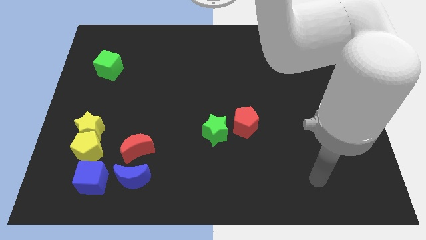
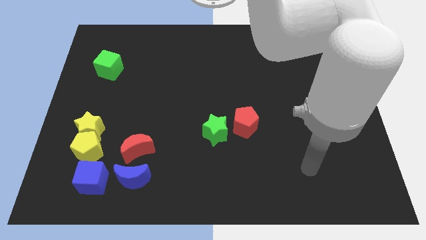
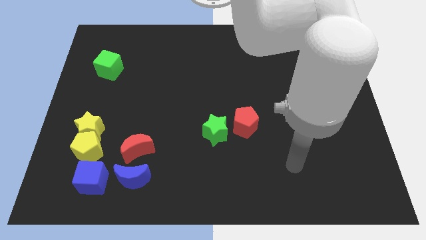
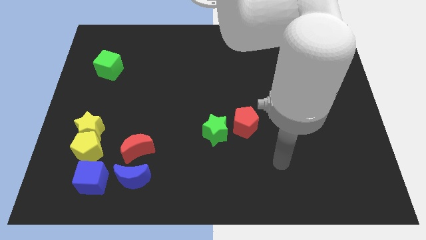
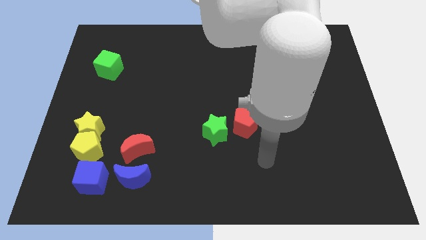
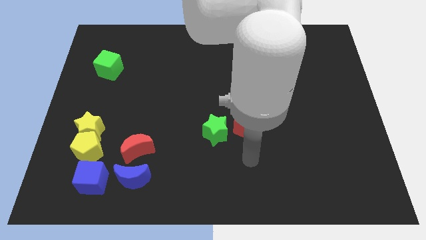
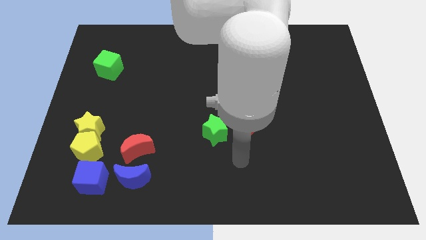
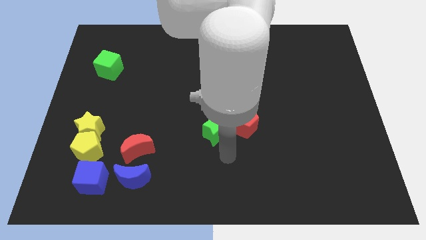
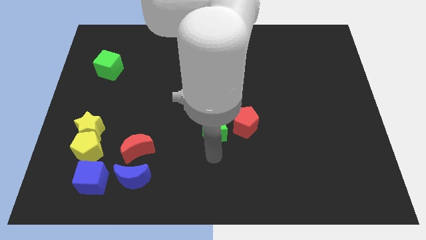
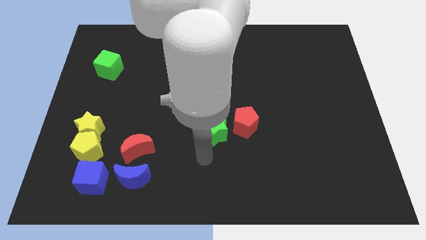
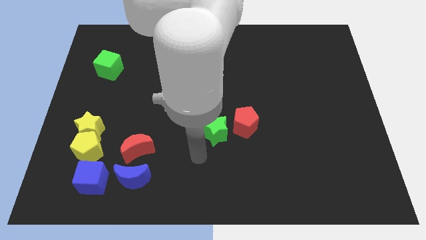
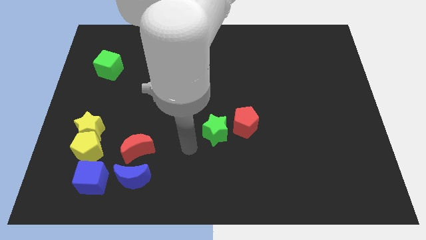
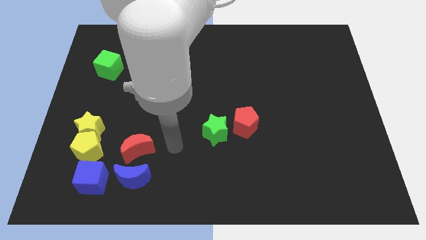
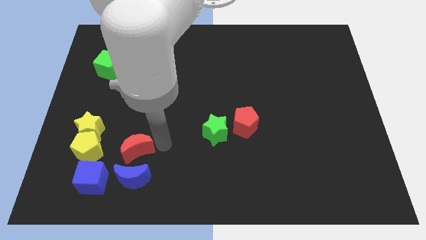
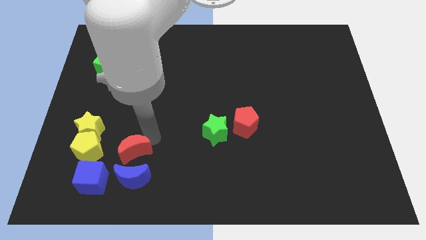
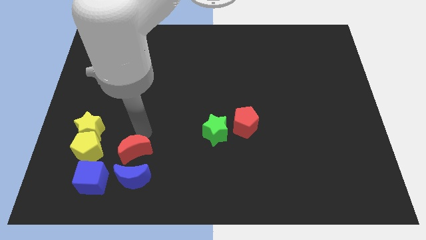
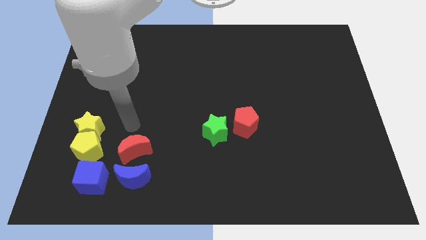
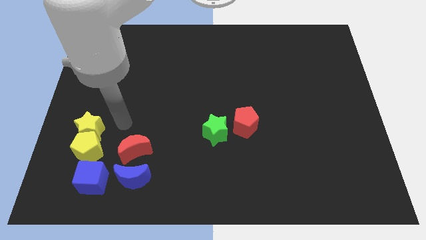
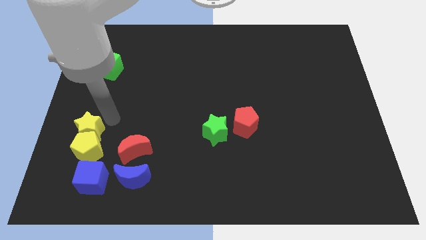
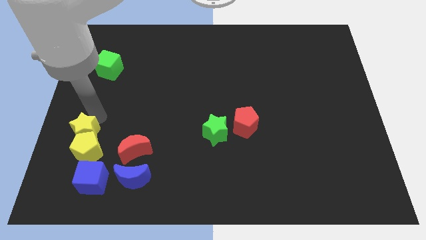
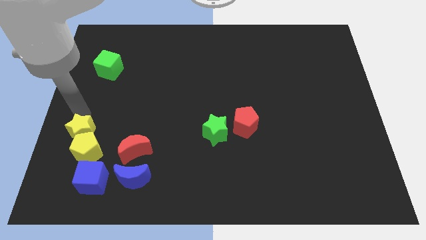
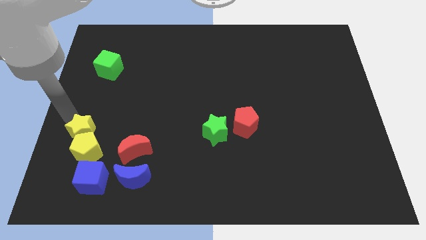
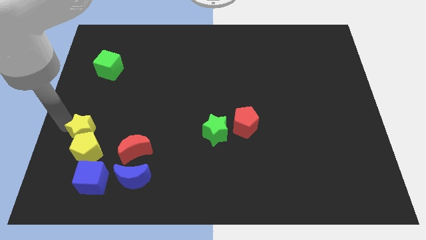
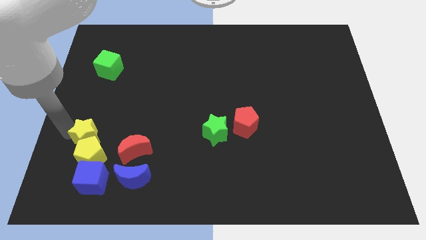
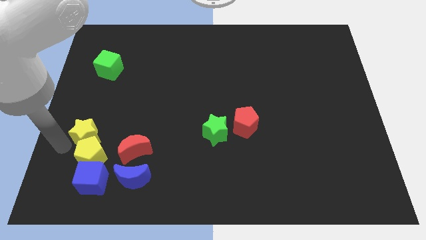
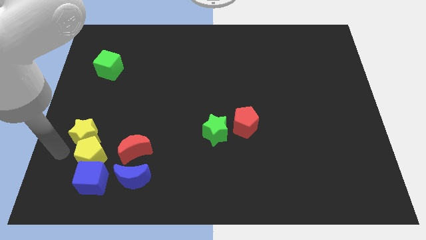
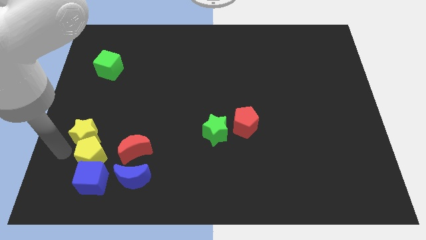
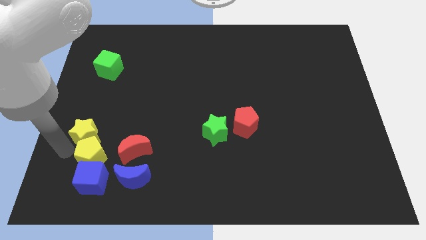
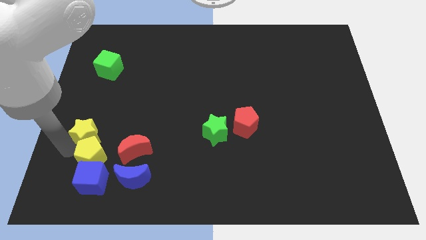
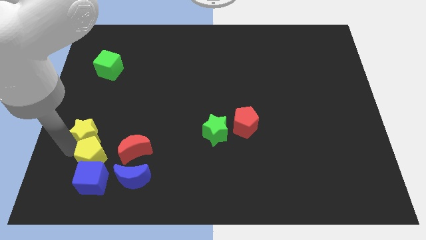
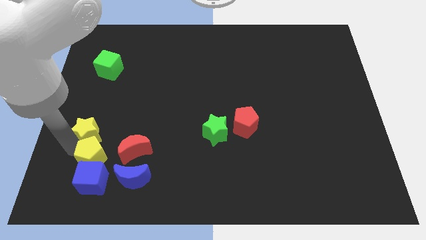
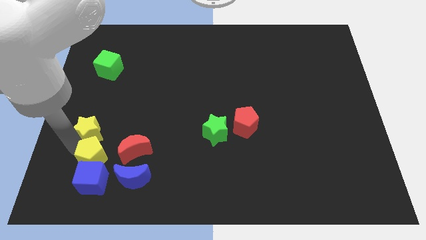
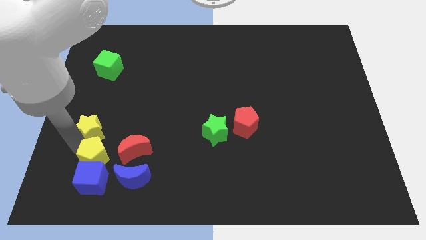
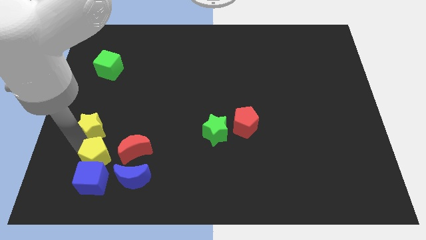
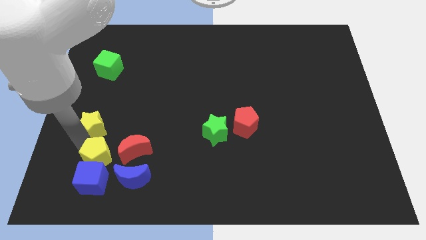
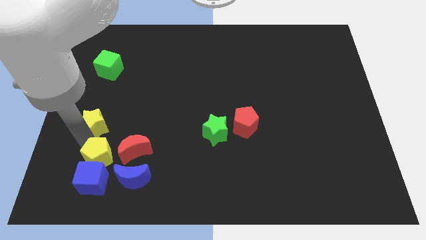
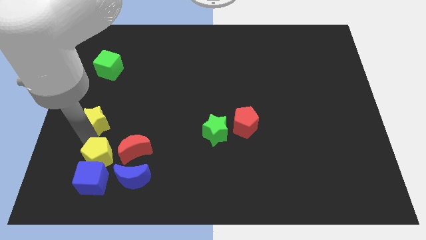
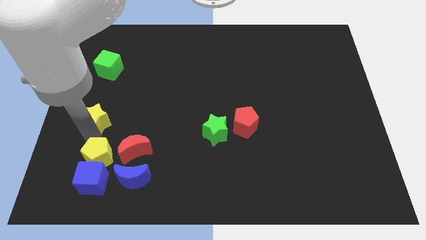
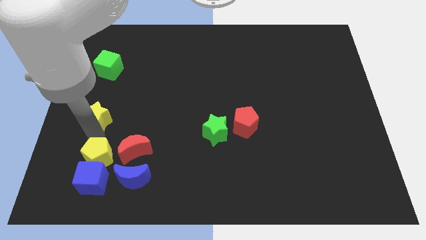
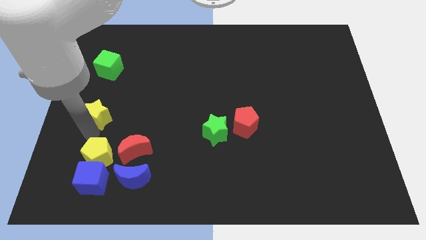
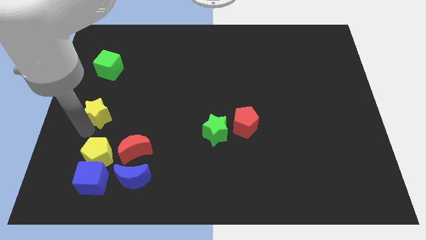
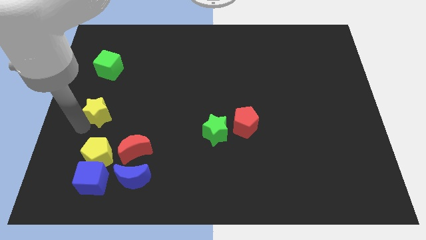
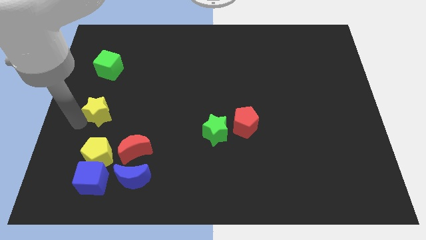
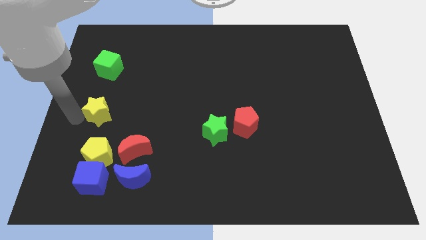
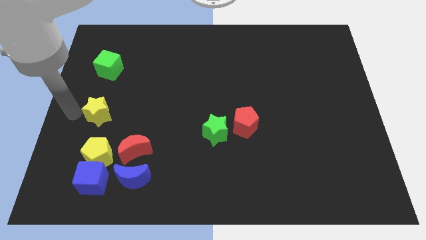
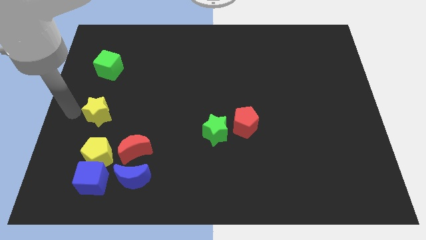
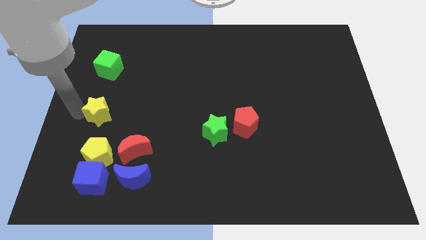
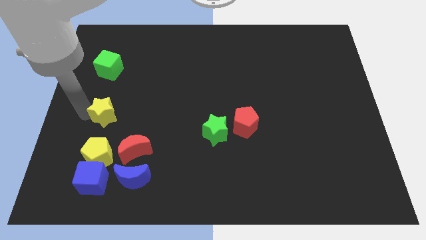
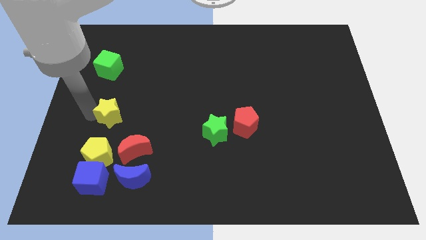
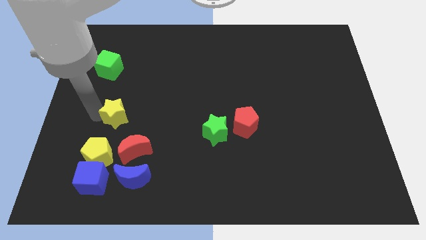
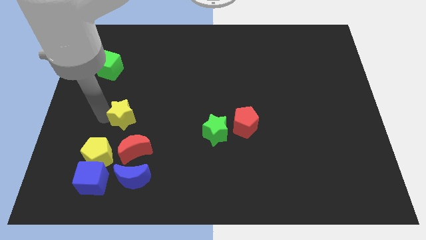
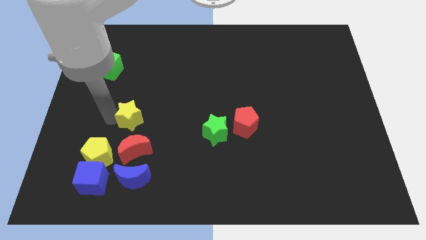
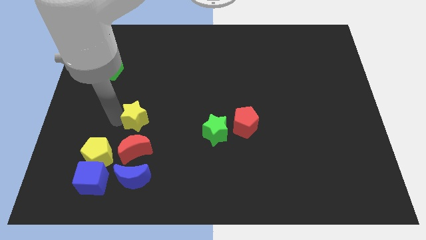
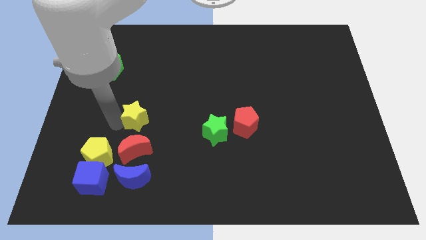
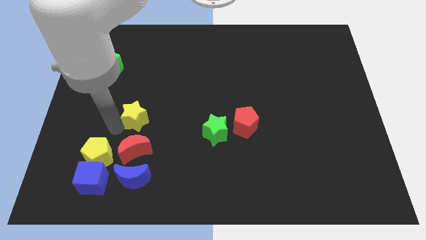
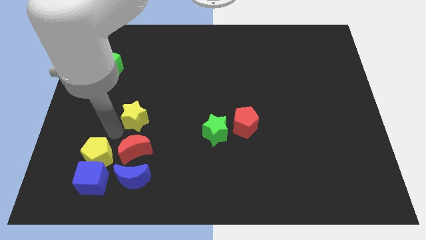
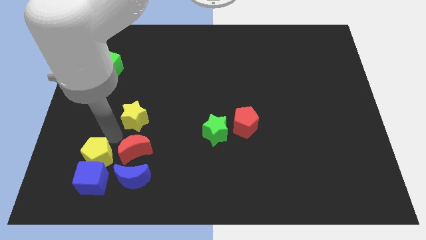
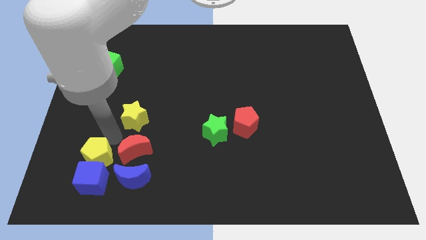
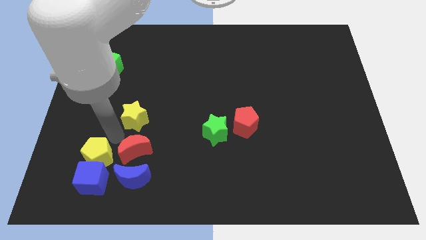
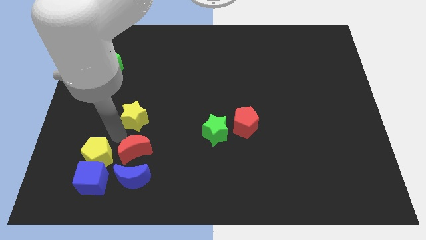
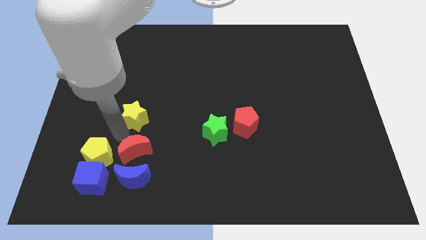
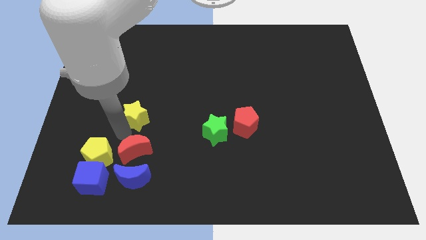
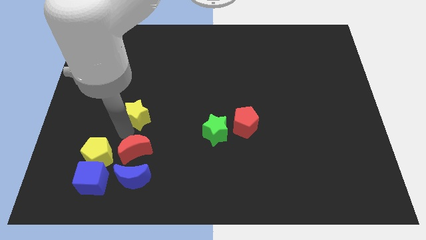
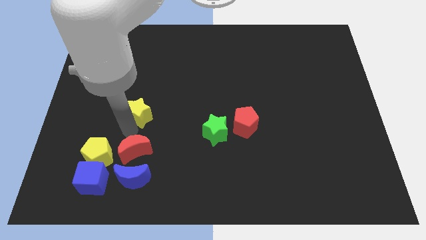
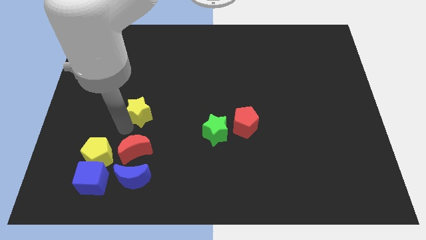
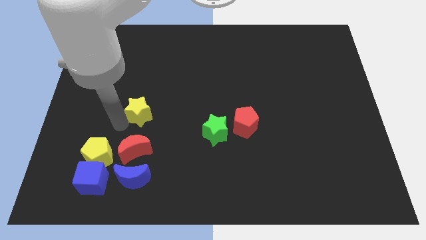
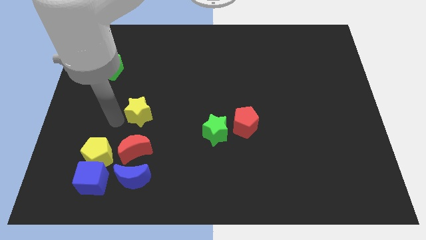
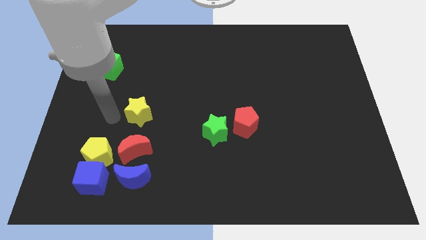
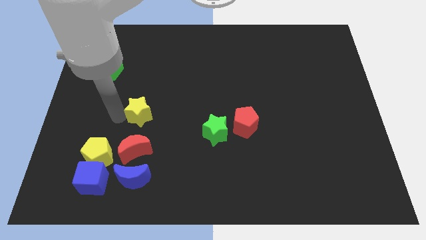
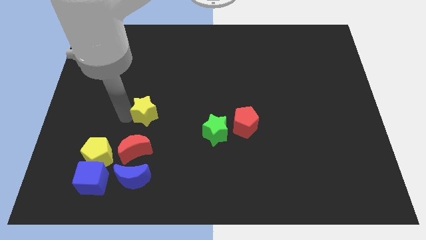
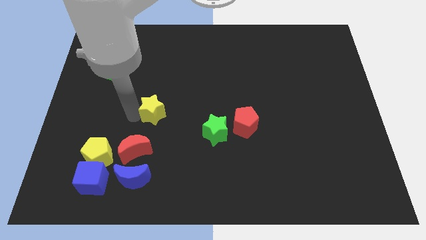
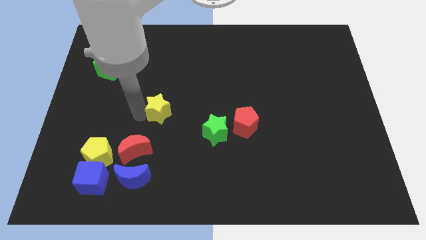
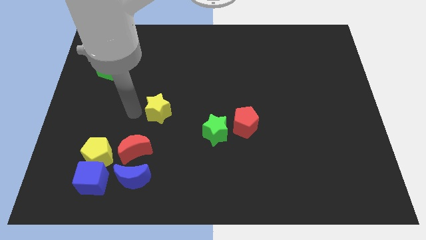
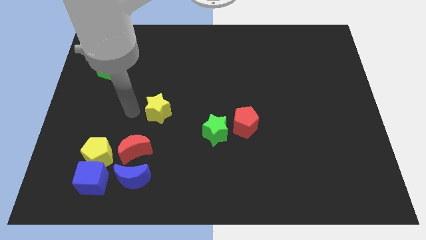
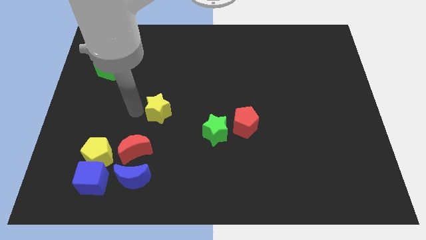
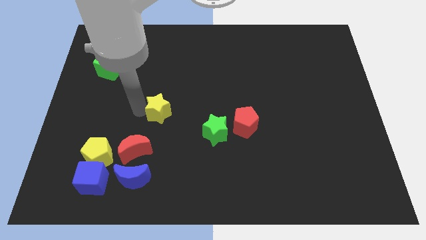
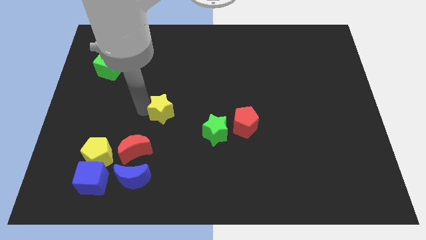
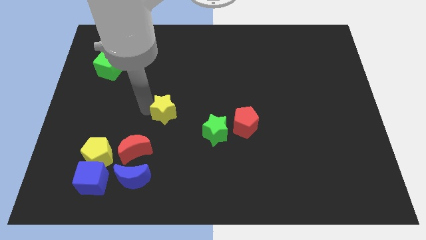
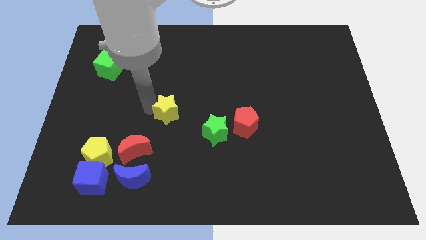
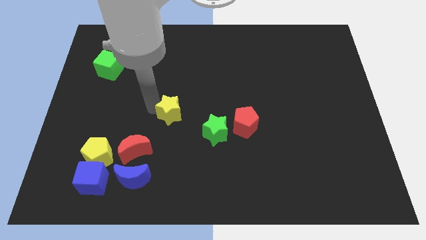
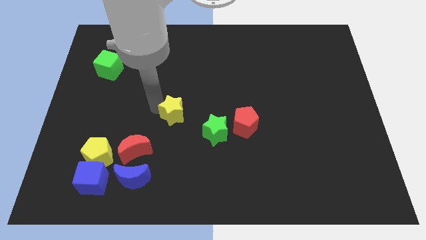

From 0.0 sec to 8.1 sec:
put the yellow star to the top left side of the green star
